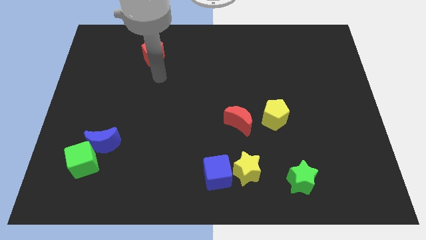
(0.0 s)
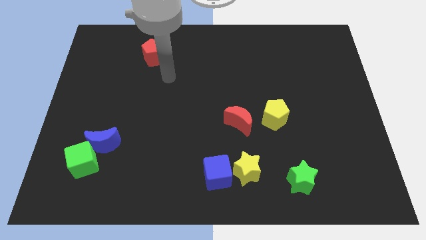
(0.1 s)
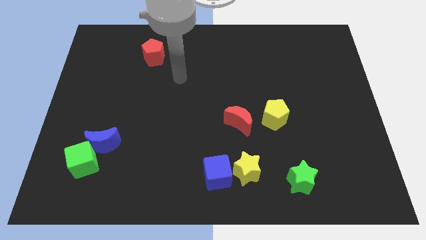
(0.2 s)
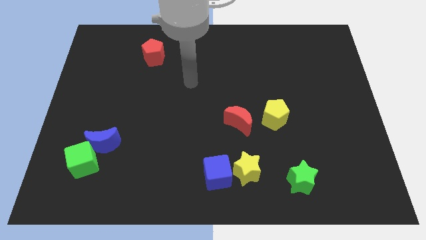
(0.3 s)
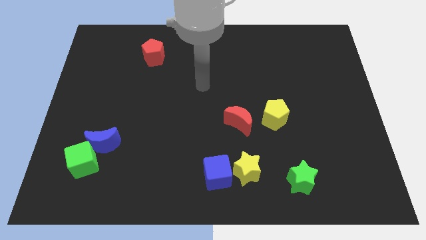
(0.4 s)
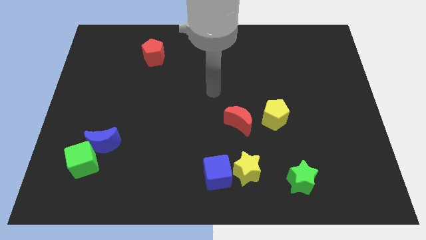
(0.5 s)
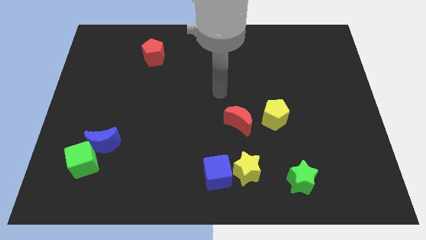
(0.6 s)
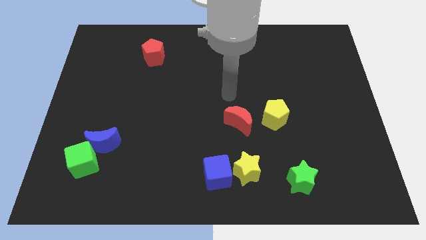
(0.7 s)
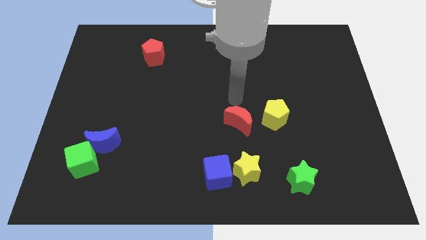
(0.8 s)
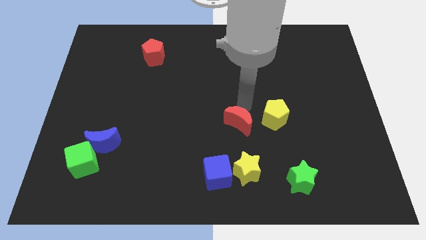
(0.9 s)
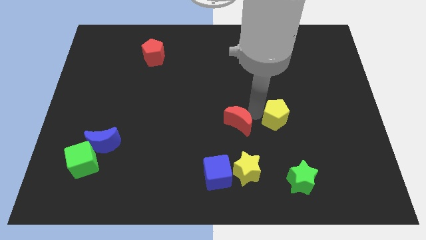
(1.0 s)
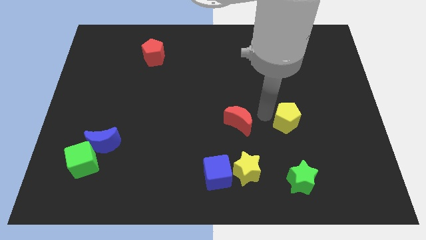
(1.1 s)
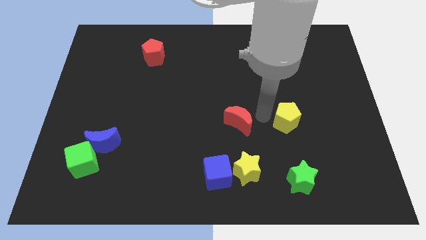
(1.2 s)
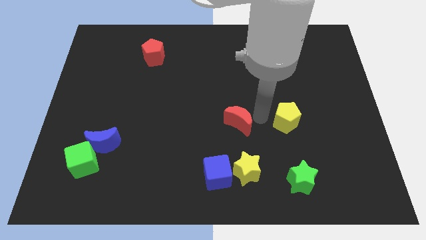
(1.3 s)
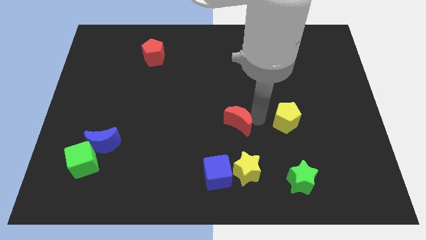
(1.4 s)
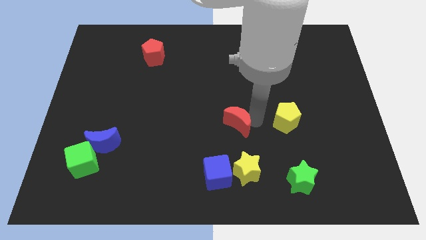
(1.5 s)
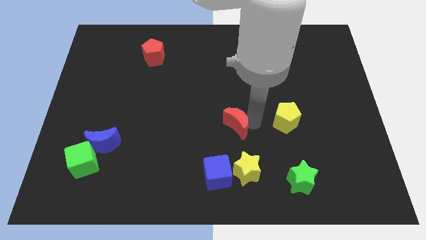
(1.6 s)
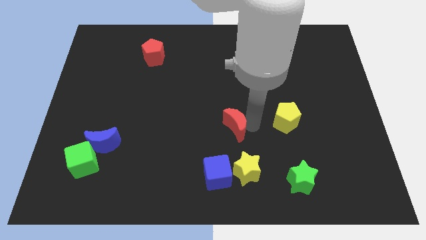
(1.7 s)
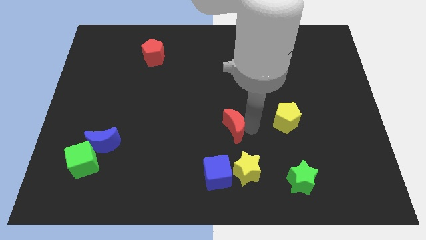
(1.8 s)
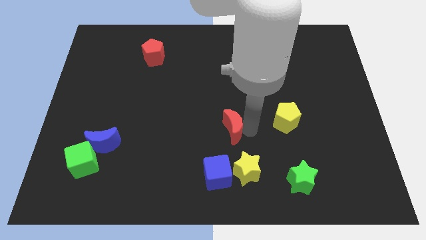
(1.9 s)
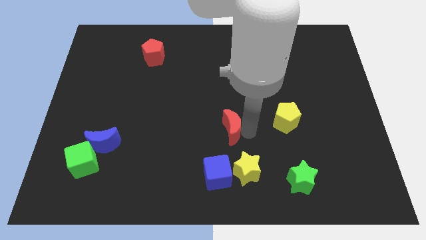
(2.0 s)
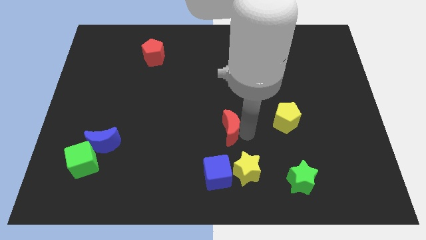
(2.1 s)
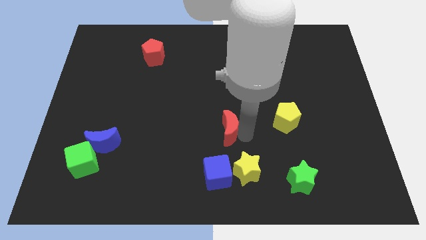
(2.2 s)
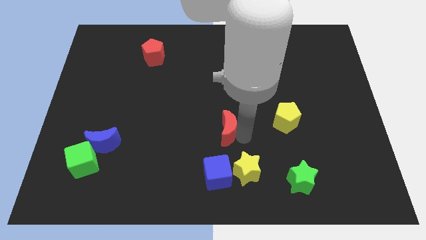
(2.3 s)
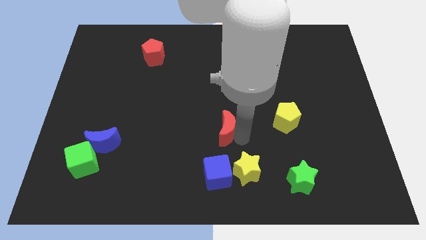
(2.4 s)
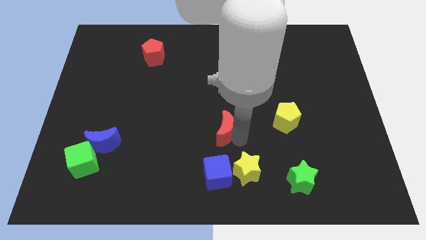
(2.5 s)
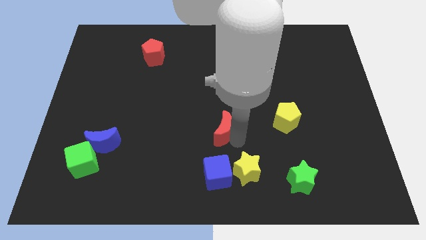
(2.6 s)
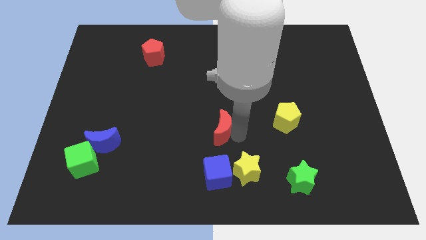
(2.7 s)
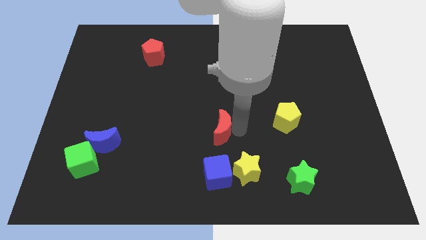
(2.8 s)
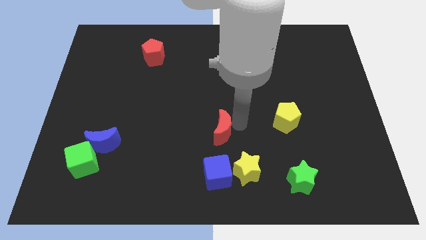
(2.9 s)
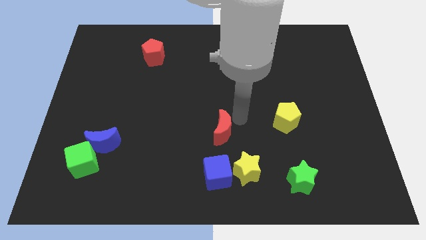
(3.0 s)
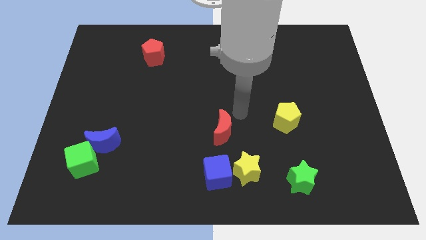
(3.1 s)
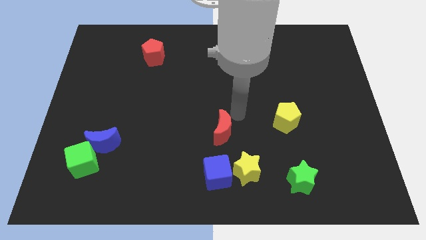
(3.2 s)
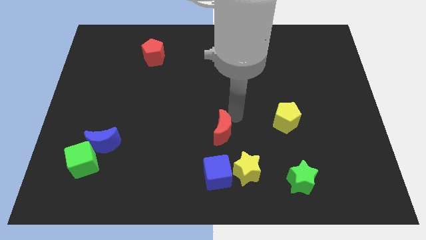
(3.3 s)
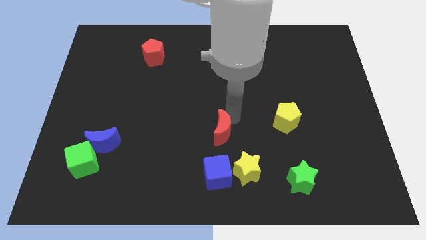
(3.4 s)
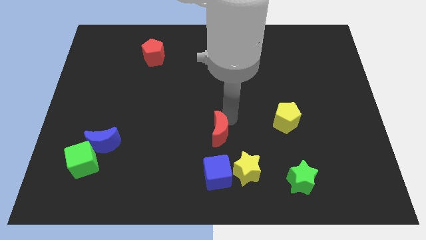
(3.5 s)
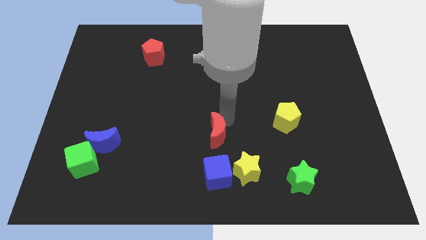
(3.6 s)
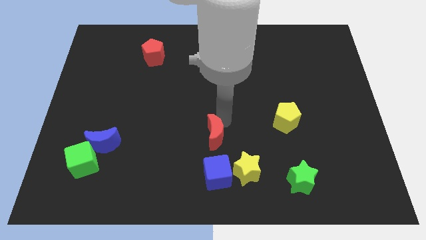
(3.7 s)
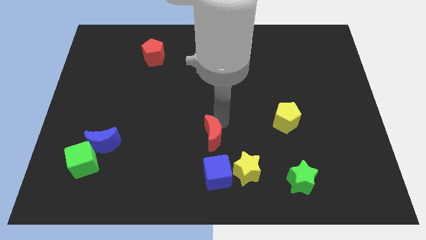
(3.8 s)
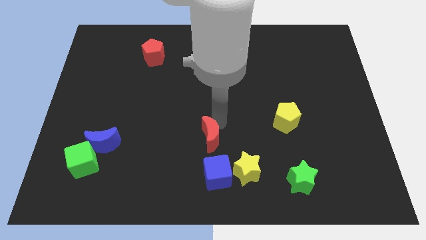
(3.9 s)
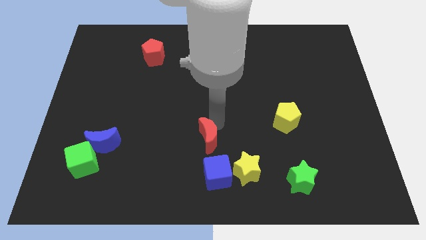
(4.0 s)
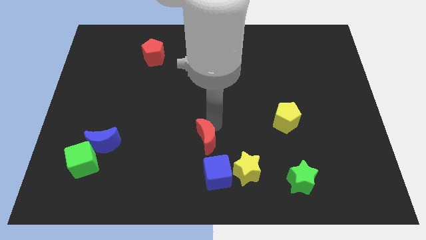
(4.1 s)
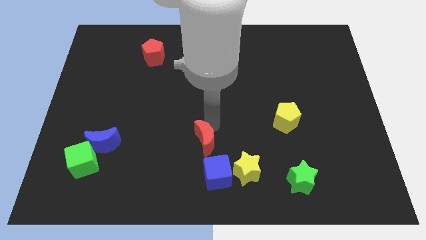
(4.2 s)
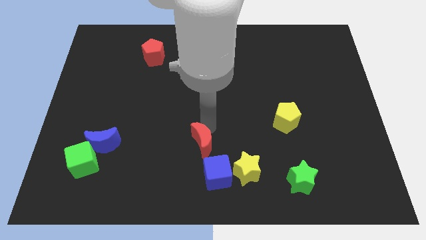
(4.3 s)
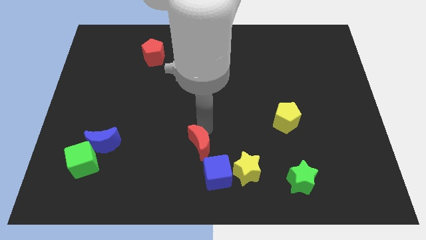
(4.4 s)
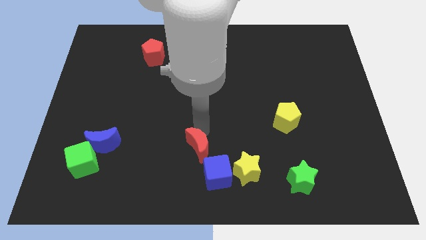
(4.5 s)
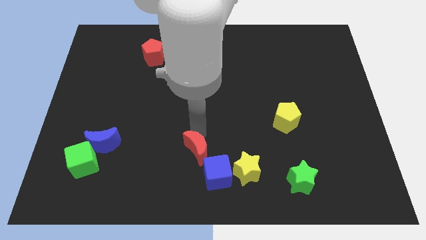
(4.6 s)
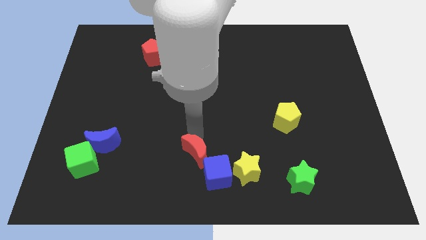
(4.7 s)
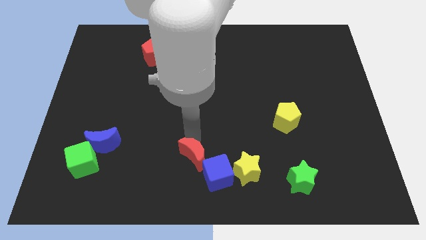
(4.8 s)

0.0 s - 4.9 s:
push the red moon to the bottom side

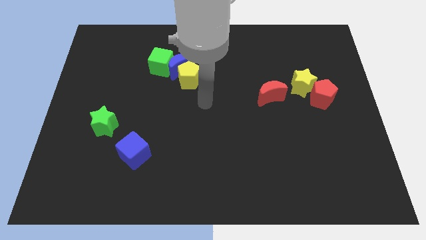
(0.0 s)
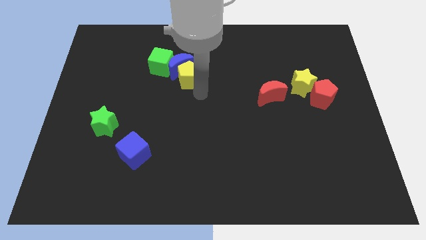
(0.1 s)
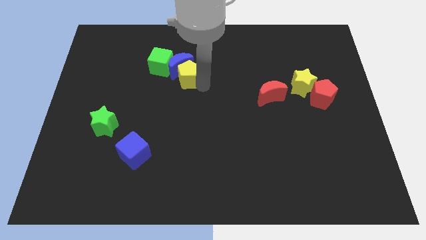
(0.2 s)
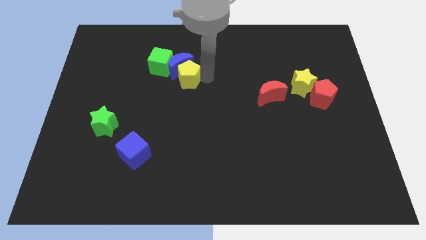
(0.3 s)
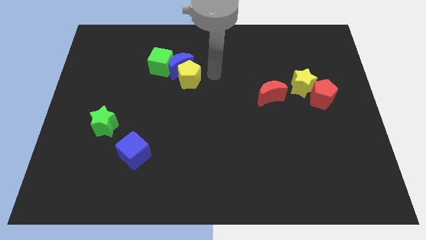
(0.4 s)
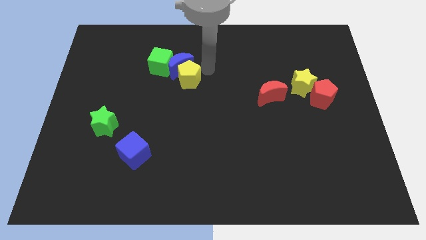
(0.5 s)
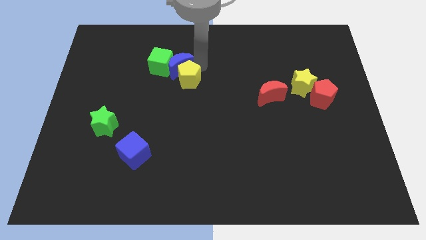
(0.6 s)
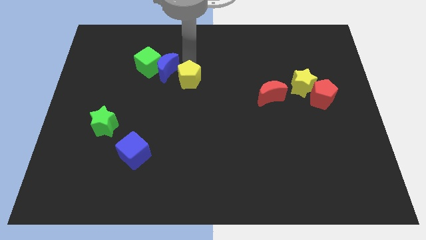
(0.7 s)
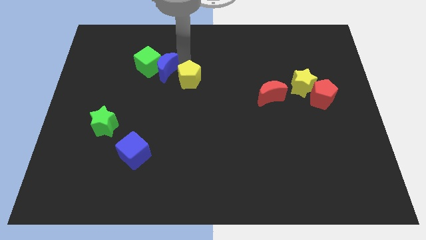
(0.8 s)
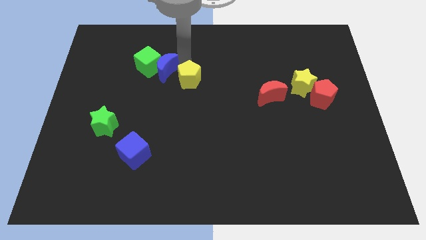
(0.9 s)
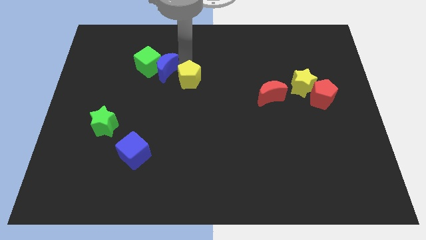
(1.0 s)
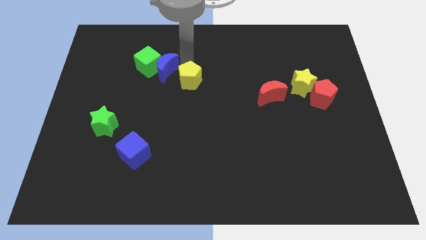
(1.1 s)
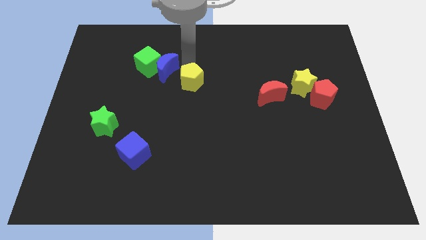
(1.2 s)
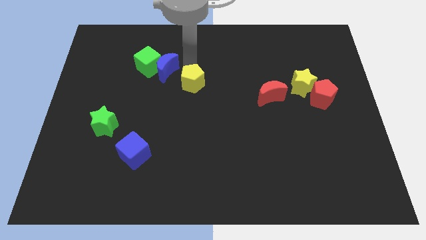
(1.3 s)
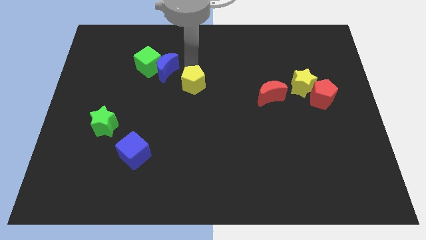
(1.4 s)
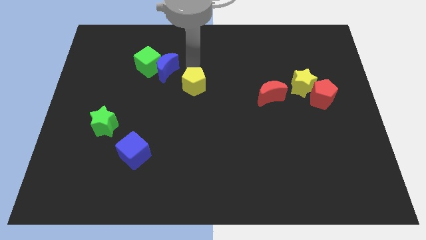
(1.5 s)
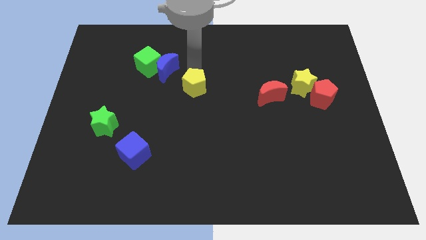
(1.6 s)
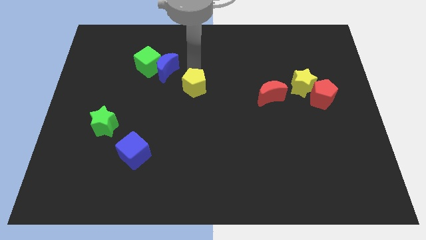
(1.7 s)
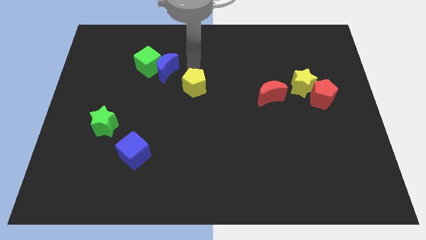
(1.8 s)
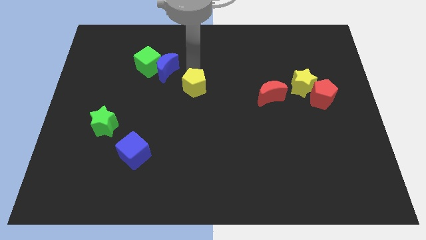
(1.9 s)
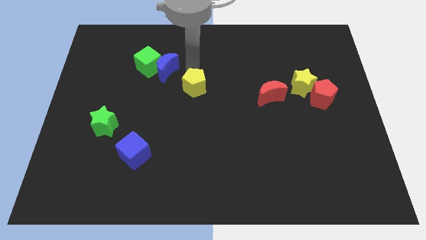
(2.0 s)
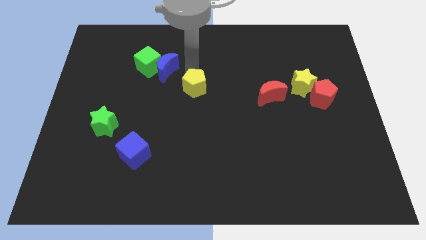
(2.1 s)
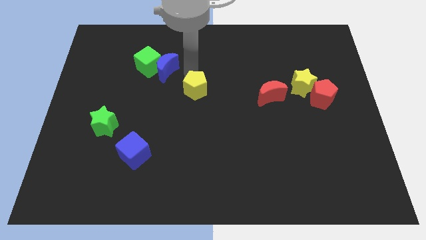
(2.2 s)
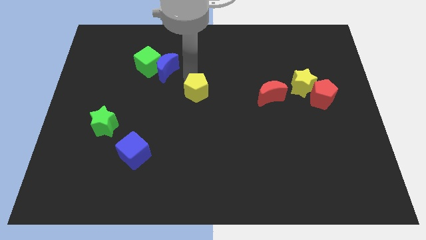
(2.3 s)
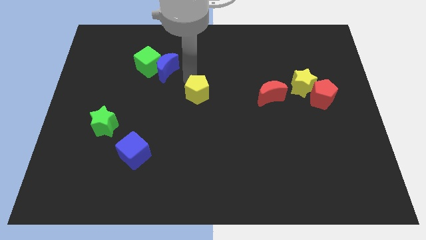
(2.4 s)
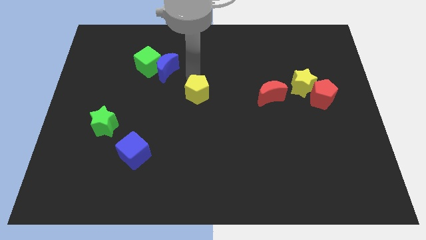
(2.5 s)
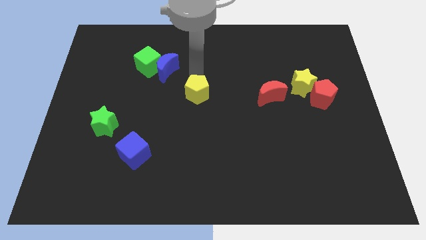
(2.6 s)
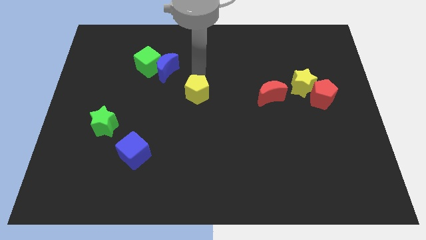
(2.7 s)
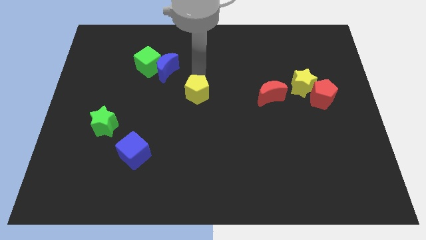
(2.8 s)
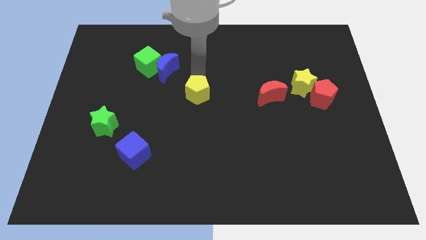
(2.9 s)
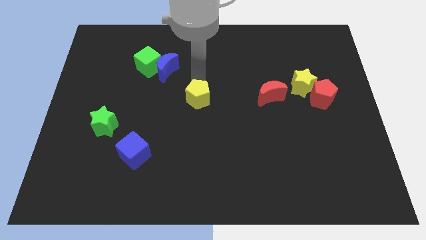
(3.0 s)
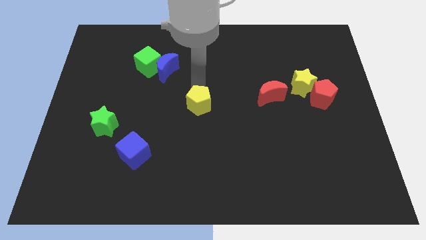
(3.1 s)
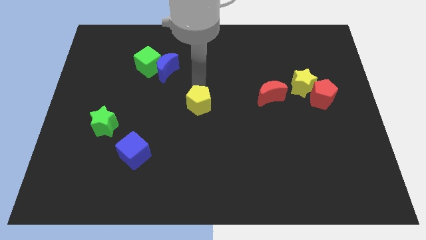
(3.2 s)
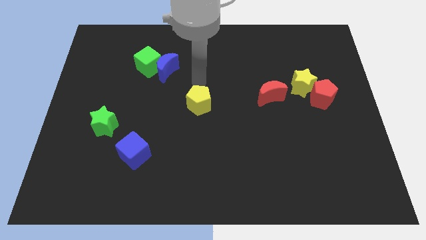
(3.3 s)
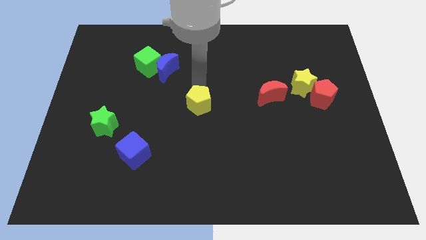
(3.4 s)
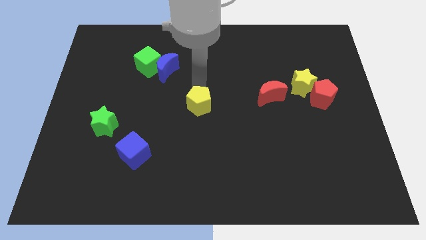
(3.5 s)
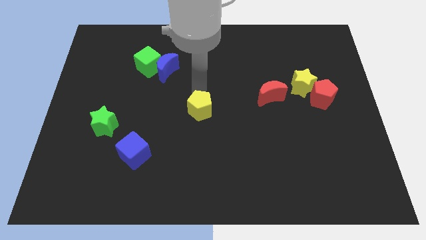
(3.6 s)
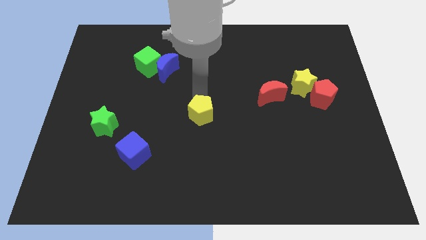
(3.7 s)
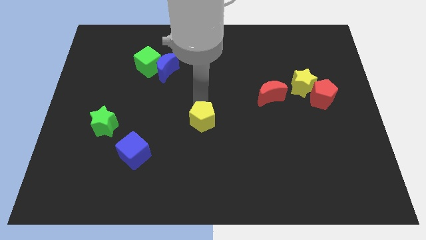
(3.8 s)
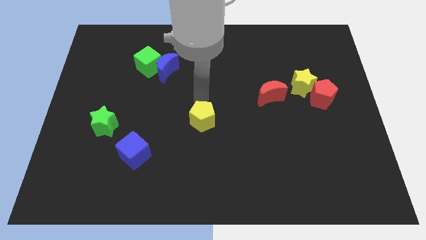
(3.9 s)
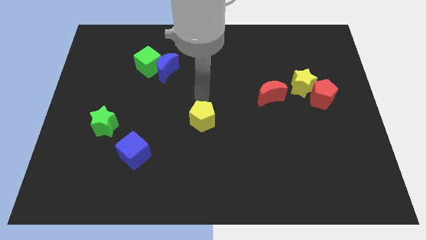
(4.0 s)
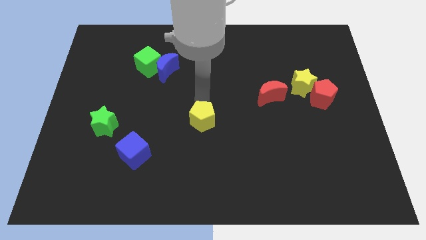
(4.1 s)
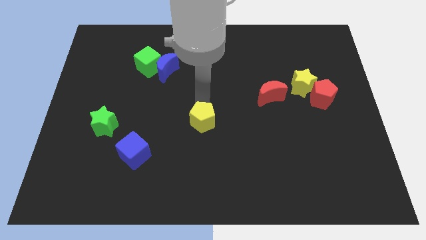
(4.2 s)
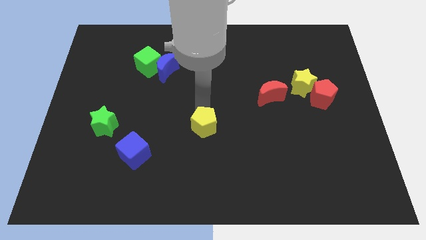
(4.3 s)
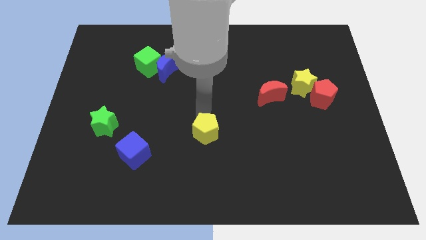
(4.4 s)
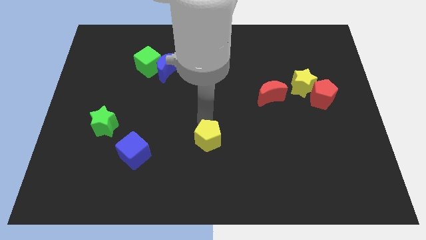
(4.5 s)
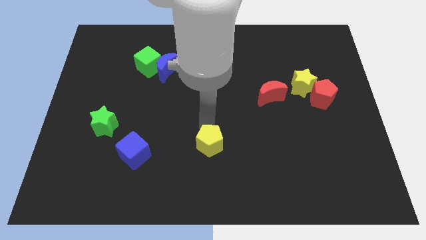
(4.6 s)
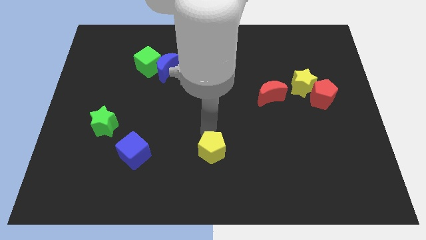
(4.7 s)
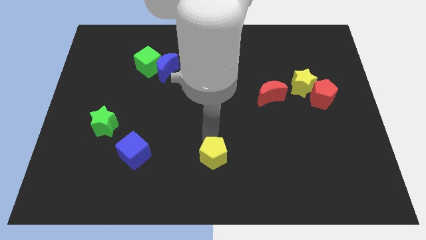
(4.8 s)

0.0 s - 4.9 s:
push the yellow pentagon to the bottom side
